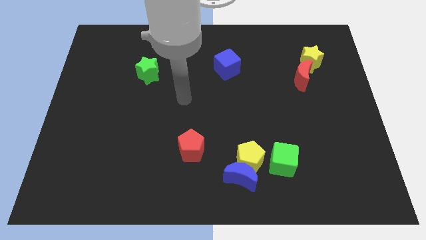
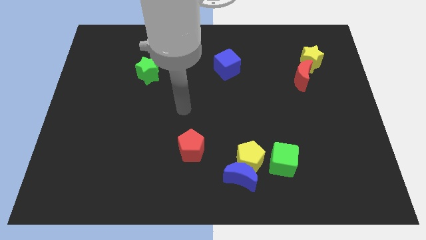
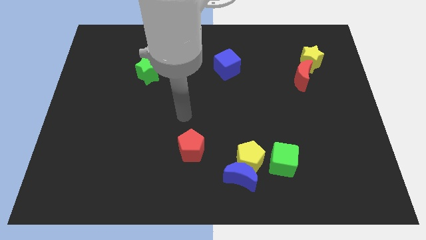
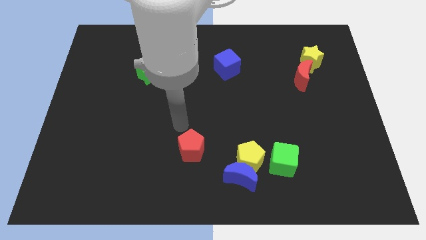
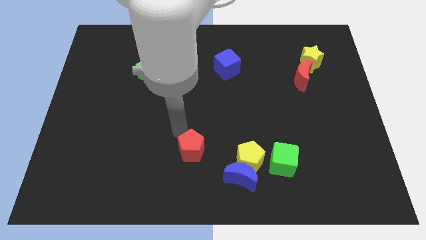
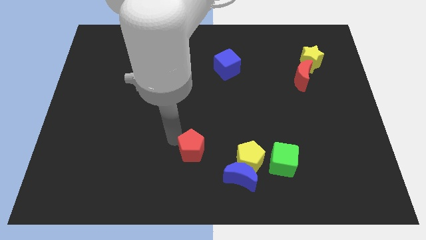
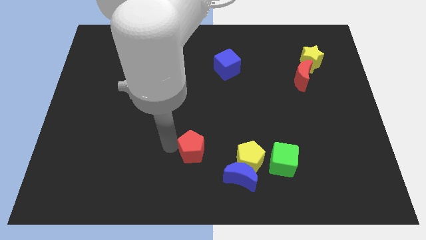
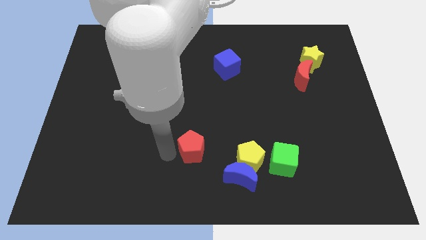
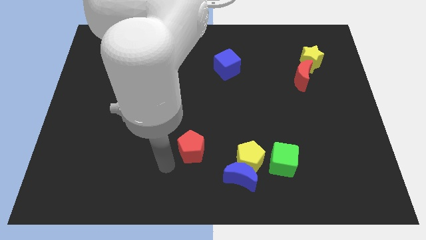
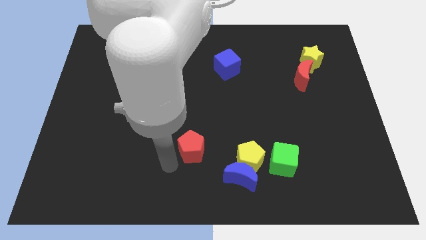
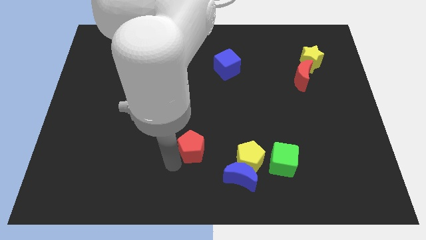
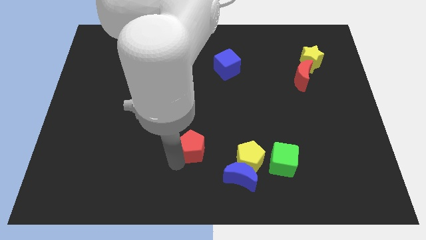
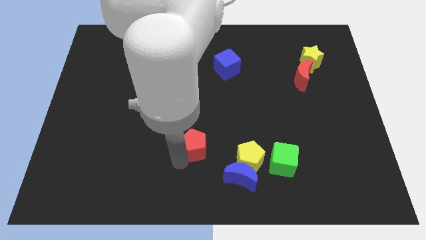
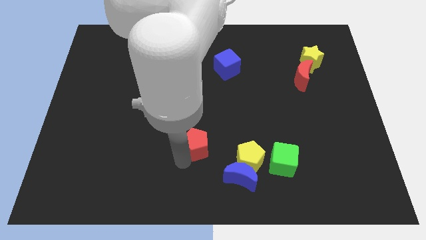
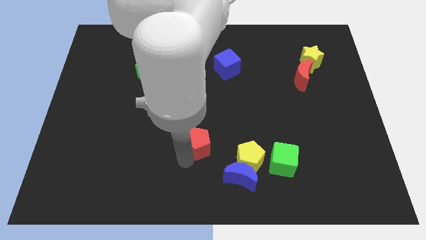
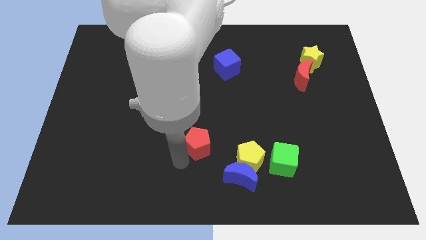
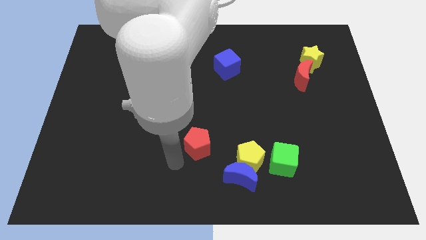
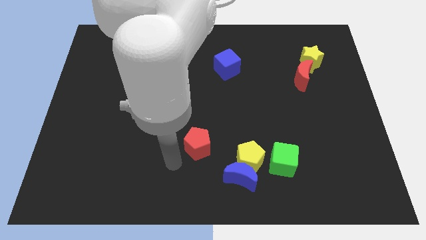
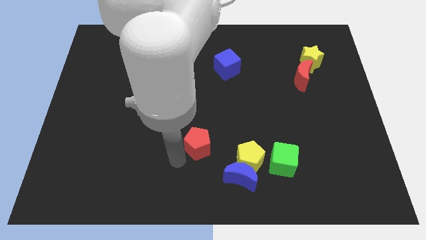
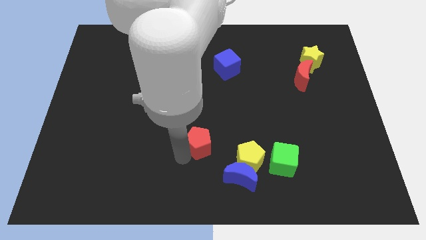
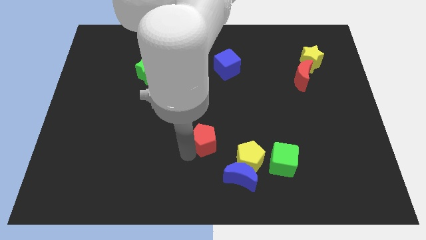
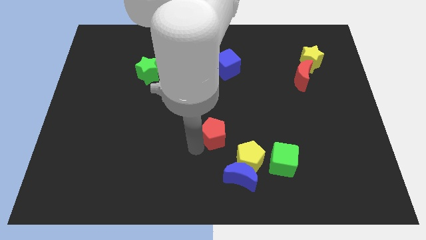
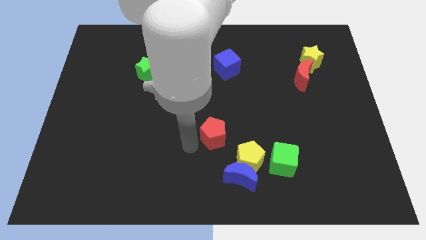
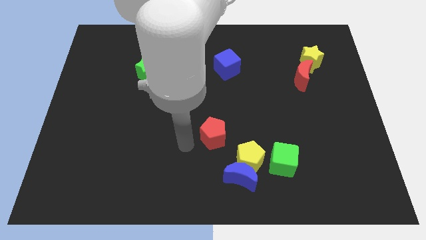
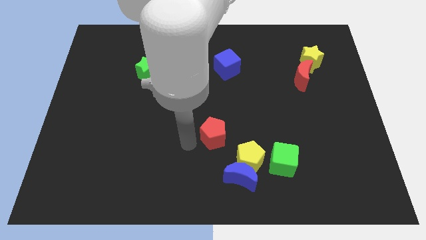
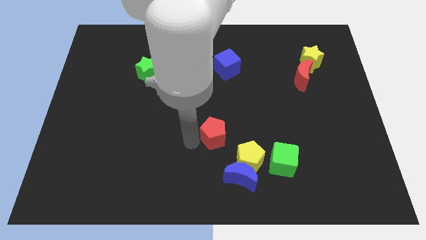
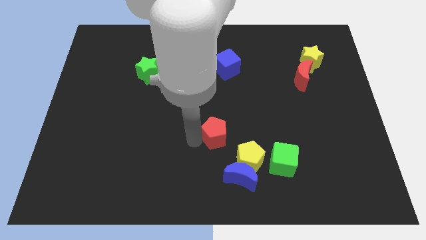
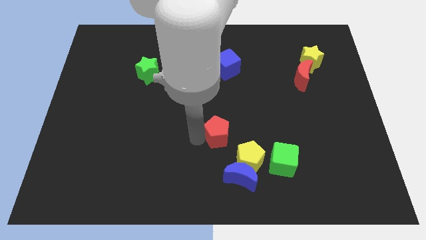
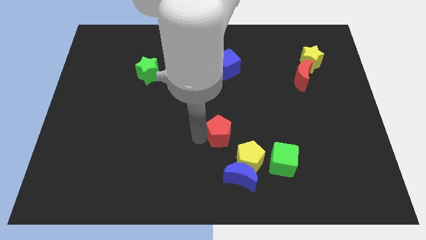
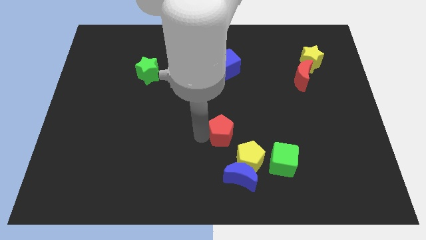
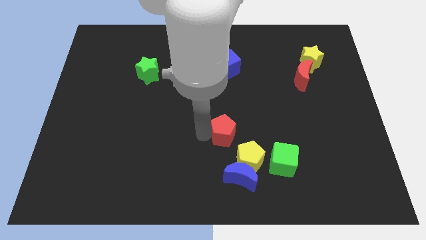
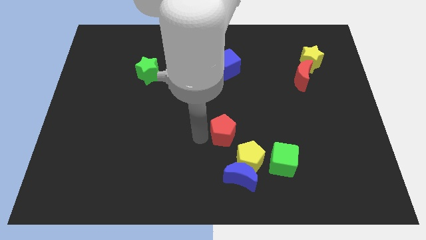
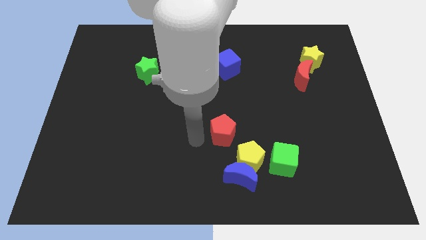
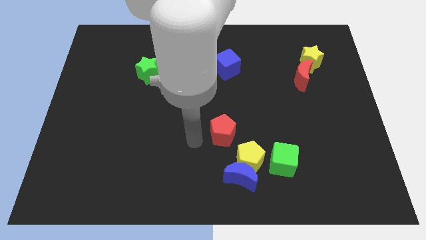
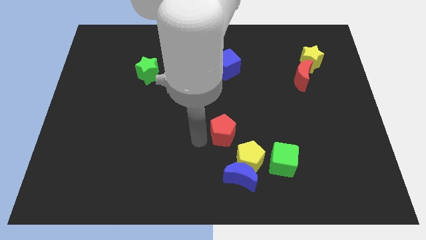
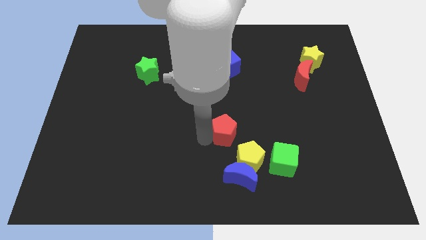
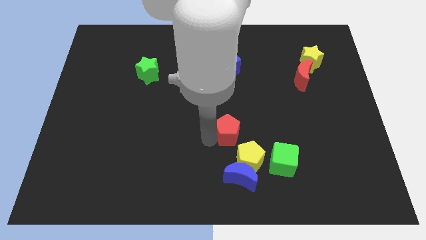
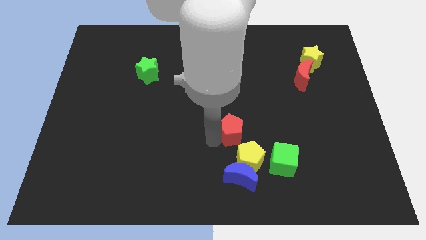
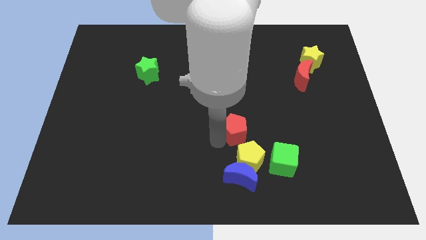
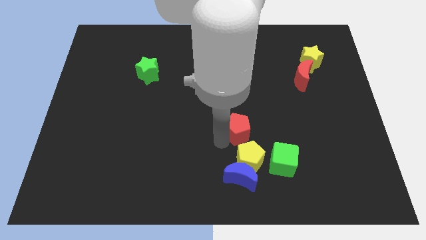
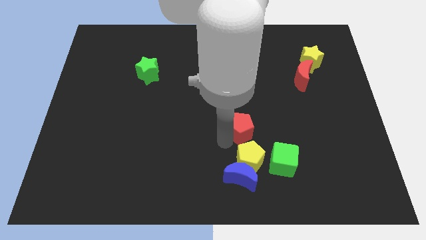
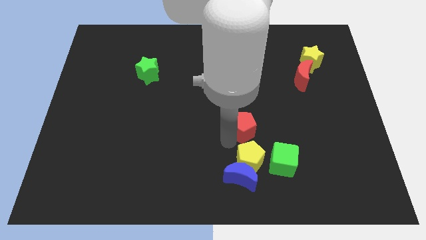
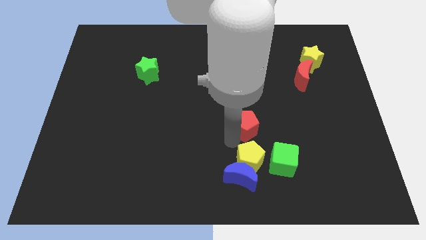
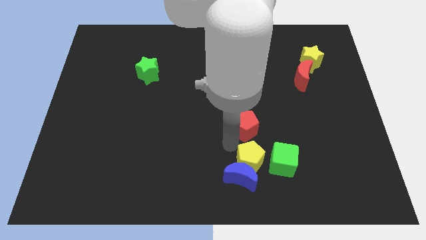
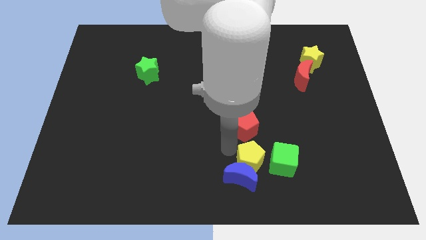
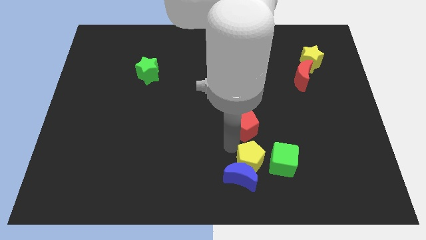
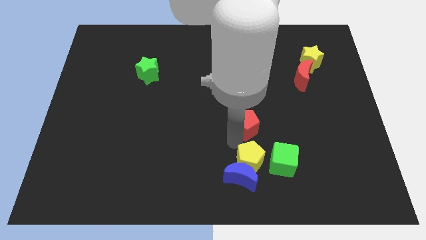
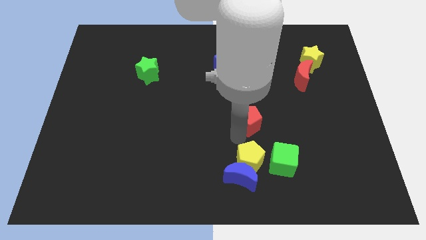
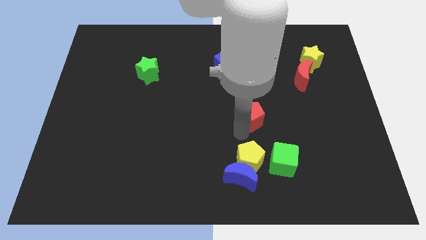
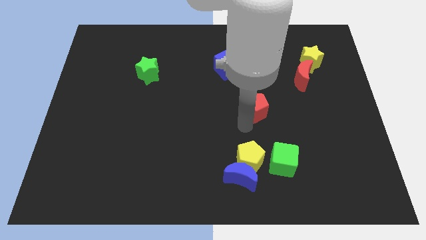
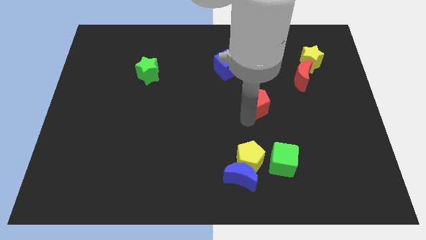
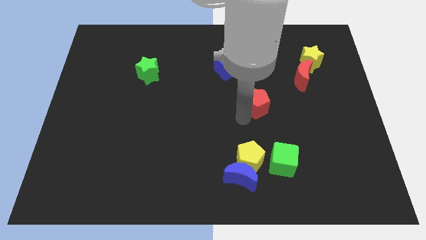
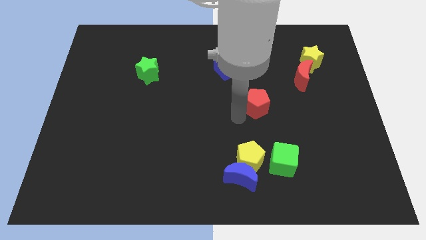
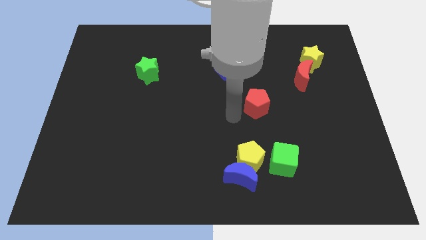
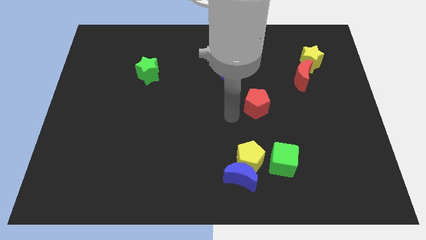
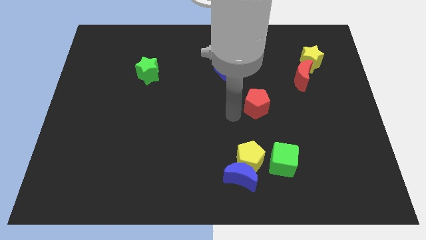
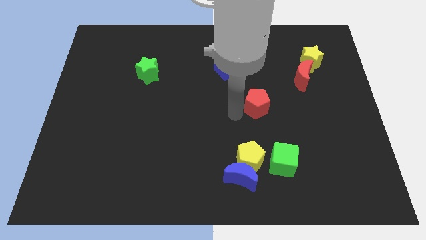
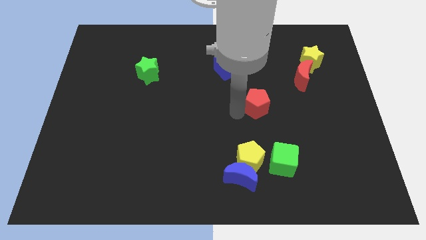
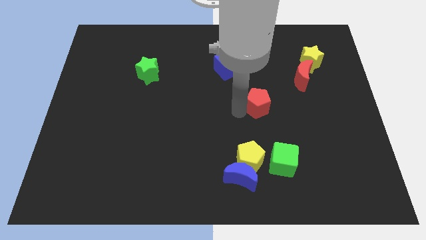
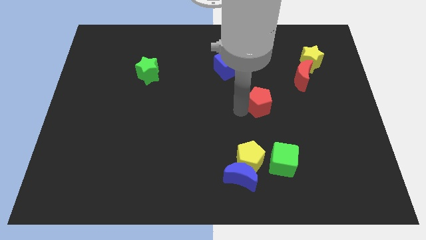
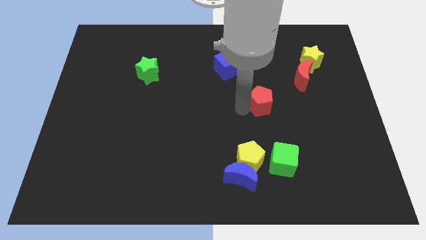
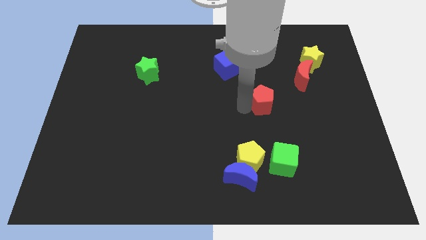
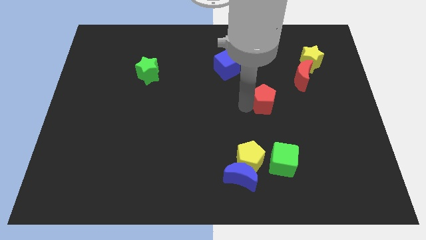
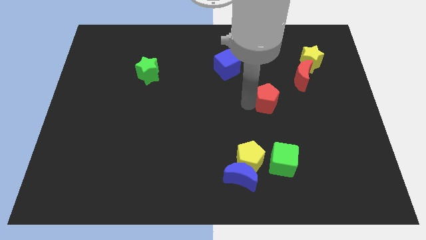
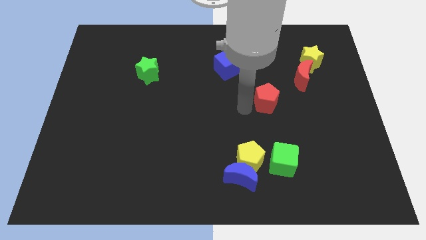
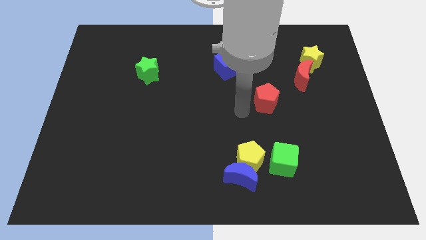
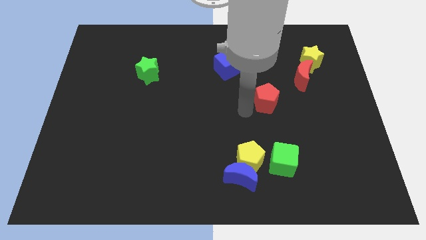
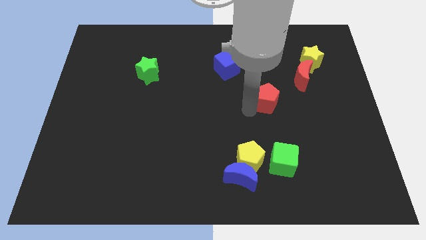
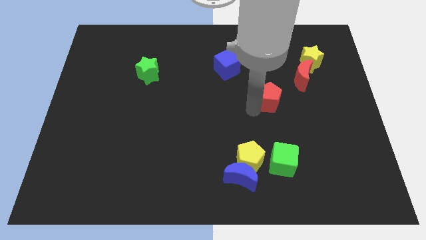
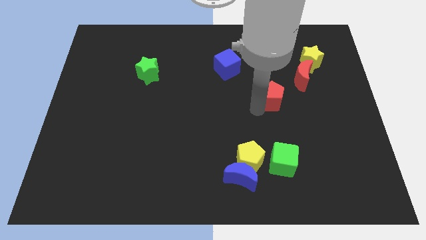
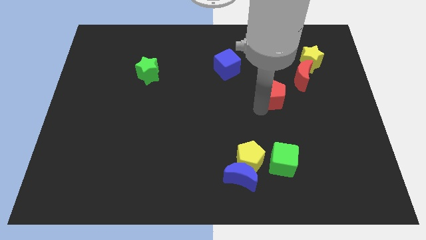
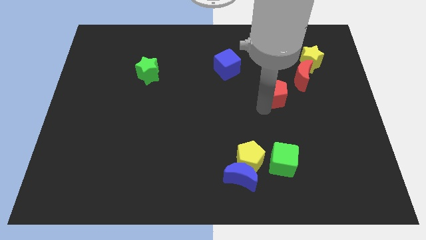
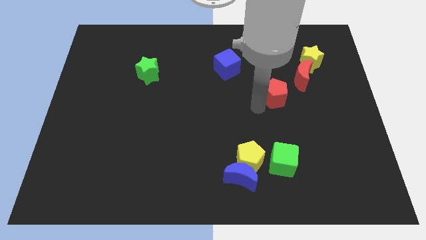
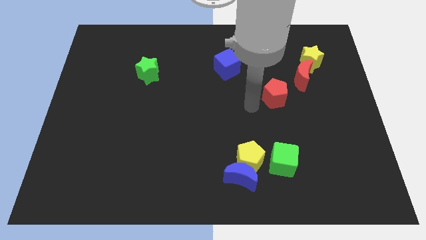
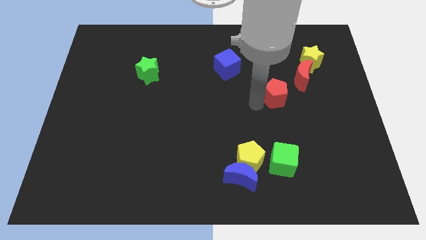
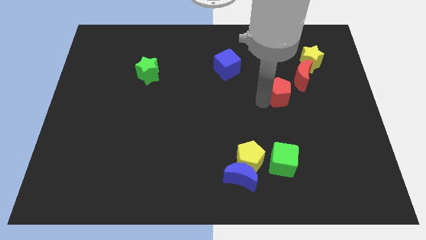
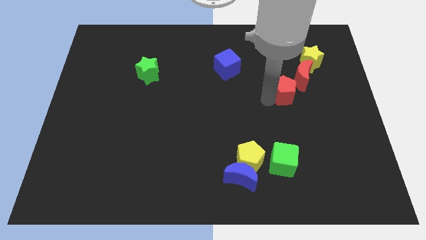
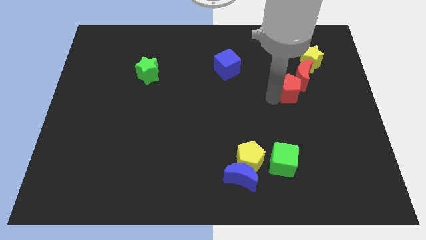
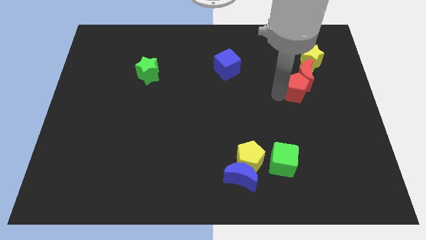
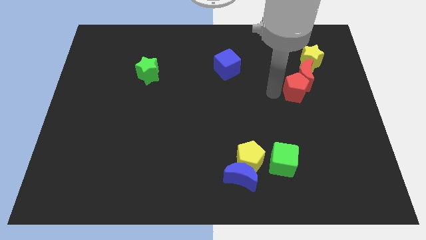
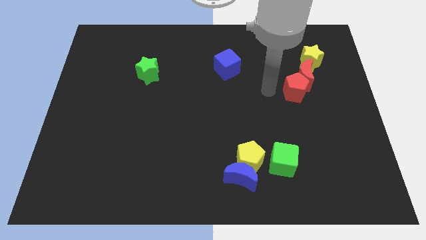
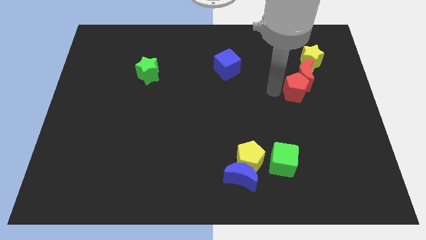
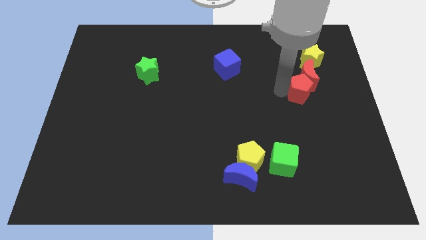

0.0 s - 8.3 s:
slide the red pentagon below the yellow star
